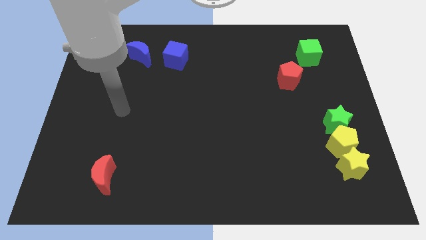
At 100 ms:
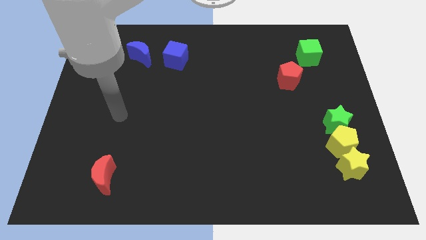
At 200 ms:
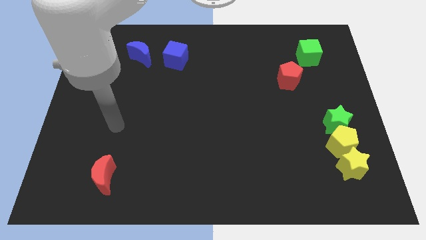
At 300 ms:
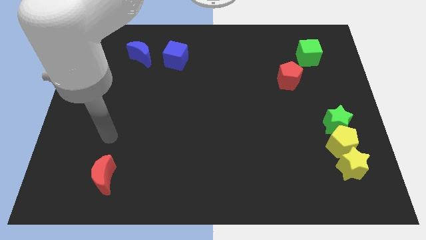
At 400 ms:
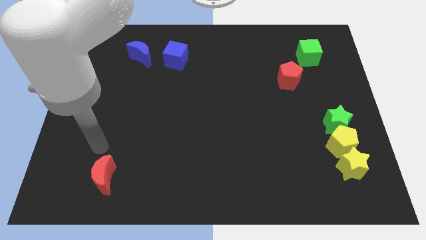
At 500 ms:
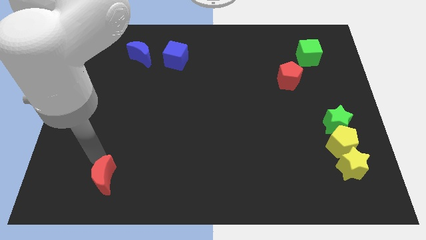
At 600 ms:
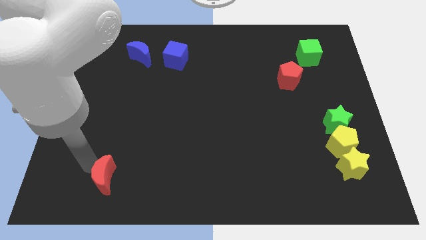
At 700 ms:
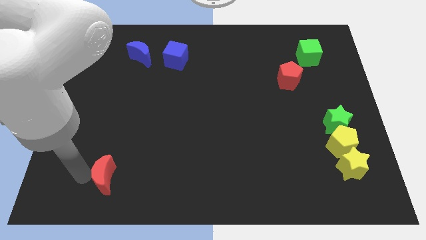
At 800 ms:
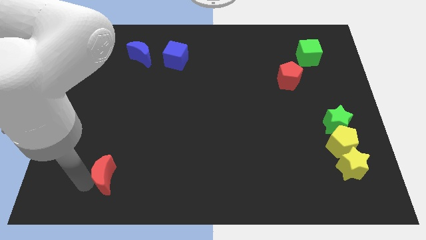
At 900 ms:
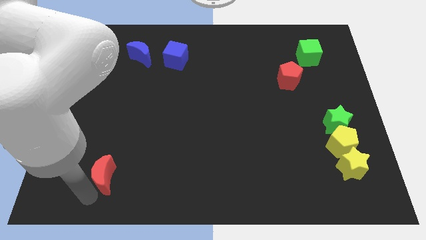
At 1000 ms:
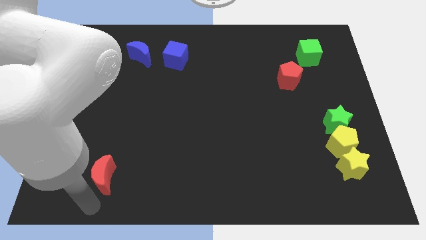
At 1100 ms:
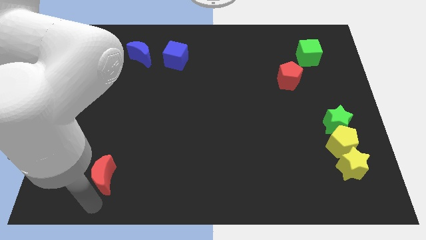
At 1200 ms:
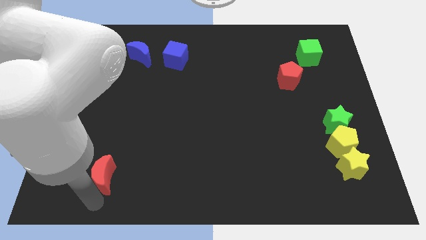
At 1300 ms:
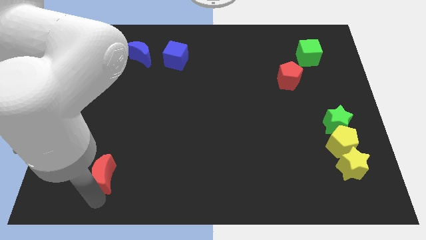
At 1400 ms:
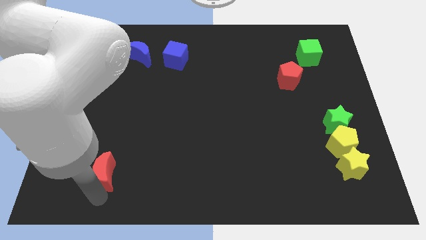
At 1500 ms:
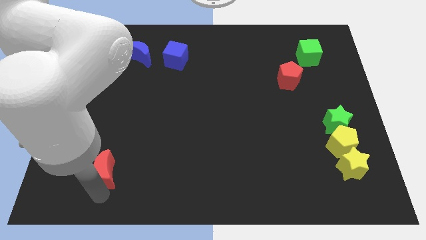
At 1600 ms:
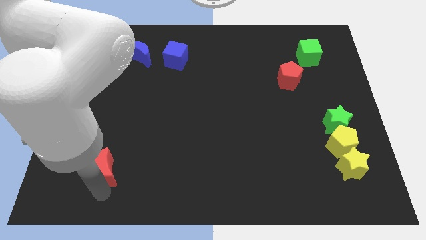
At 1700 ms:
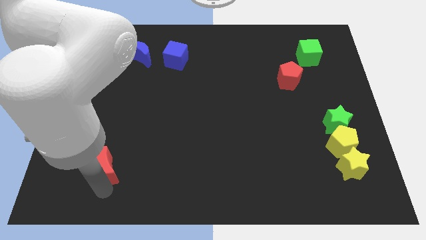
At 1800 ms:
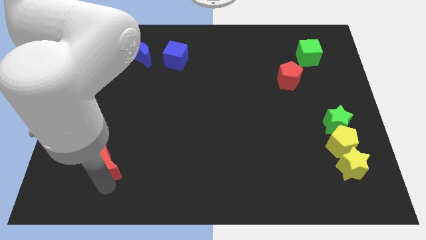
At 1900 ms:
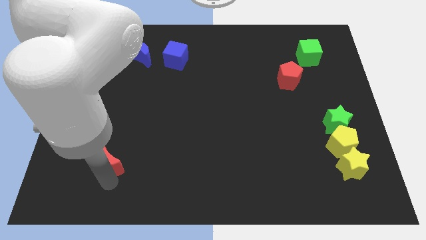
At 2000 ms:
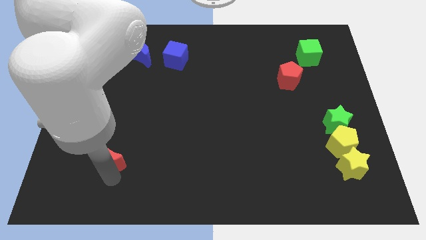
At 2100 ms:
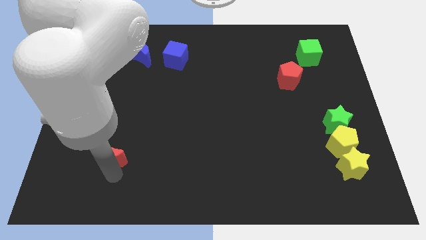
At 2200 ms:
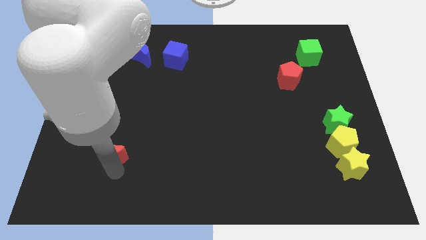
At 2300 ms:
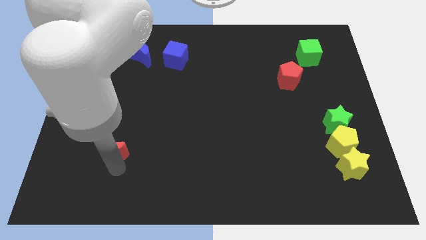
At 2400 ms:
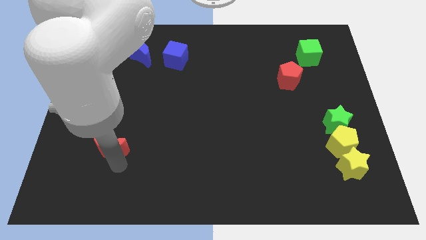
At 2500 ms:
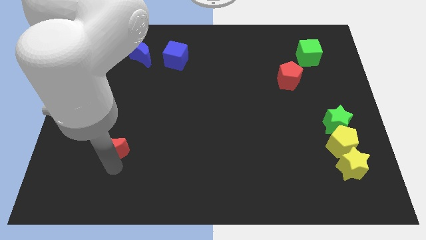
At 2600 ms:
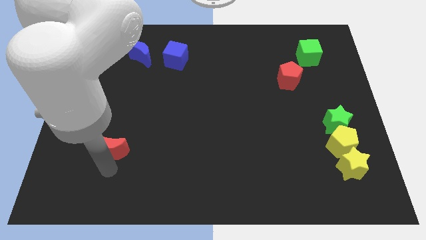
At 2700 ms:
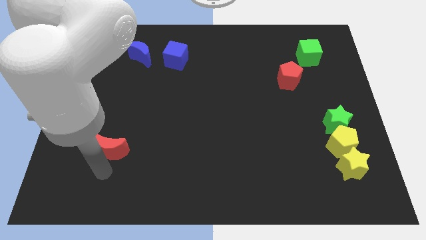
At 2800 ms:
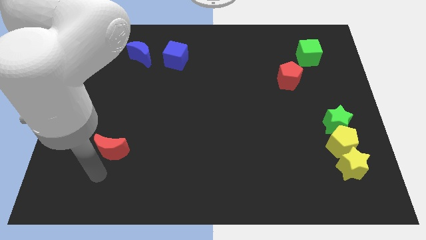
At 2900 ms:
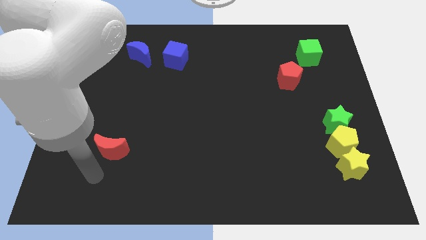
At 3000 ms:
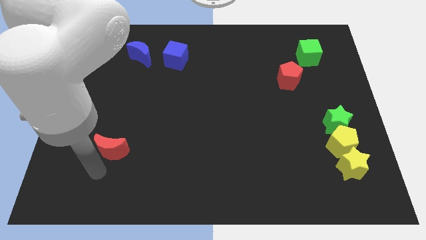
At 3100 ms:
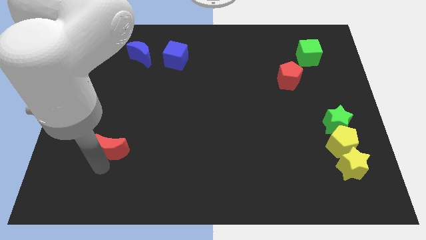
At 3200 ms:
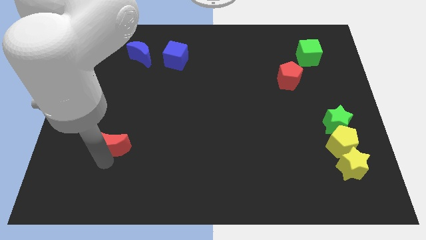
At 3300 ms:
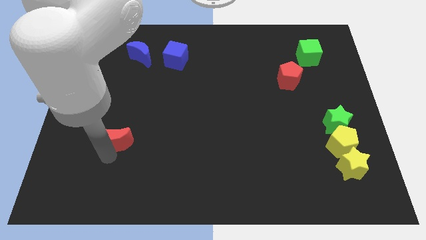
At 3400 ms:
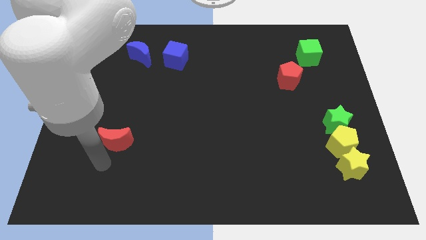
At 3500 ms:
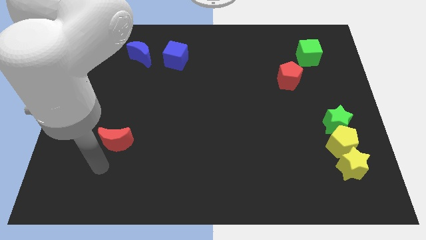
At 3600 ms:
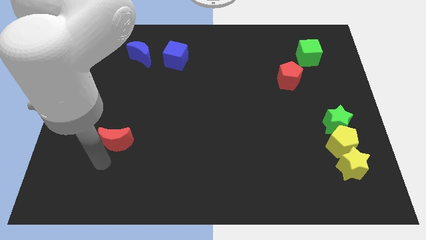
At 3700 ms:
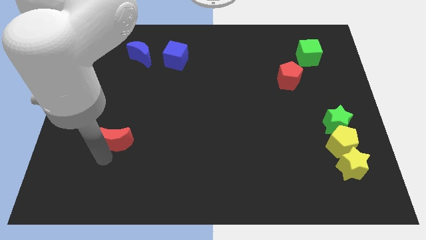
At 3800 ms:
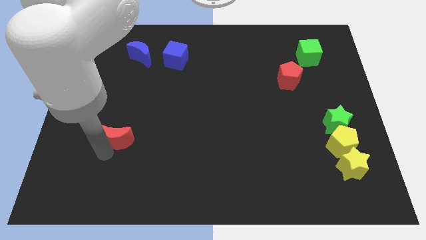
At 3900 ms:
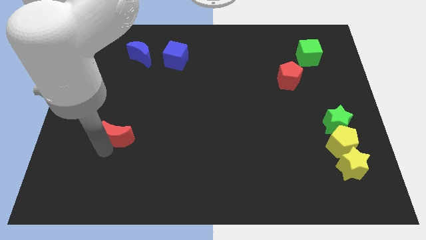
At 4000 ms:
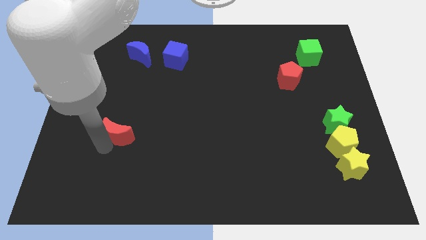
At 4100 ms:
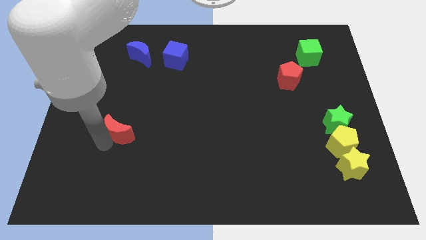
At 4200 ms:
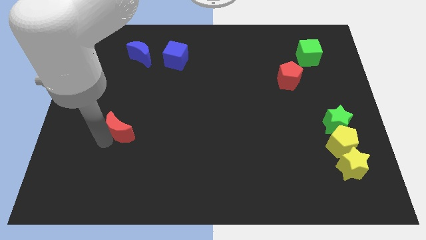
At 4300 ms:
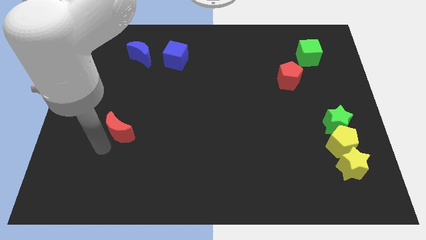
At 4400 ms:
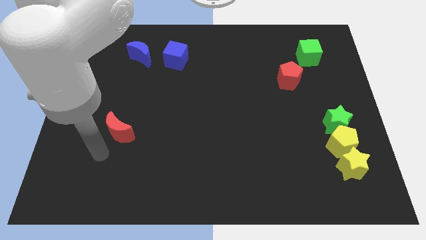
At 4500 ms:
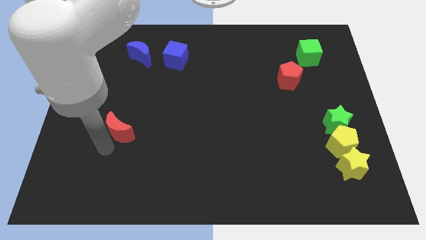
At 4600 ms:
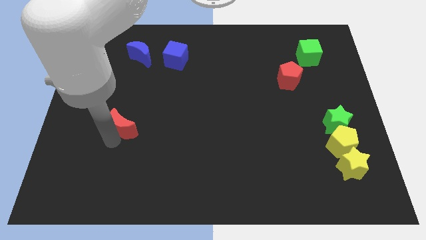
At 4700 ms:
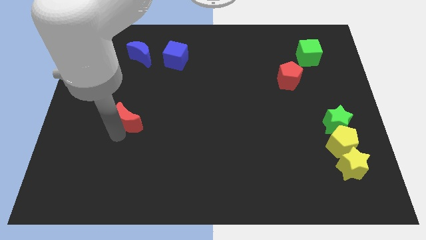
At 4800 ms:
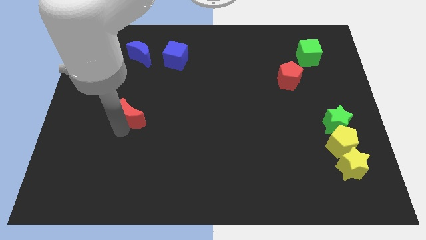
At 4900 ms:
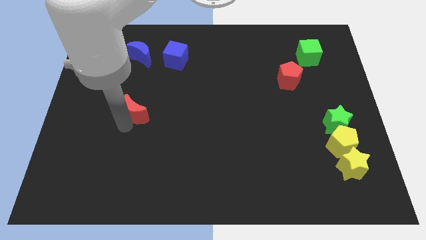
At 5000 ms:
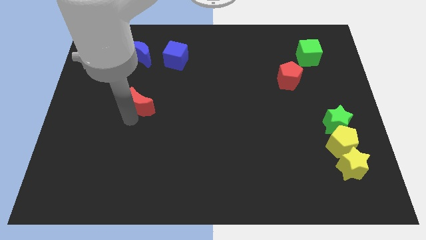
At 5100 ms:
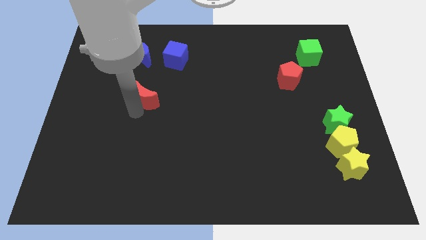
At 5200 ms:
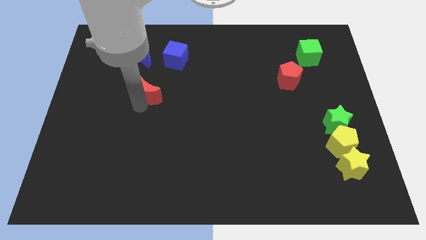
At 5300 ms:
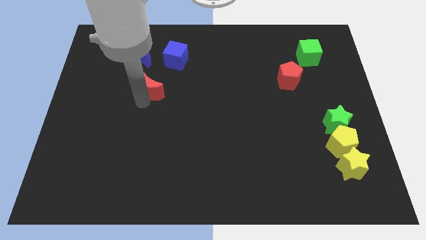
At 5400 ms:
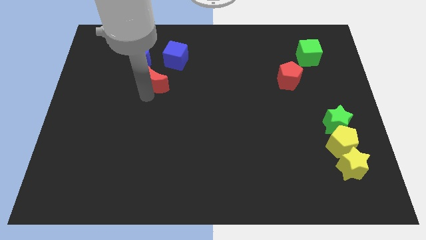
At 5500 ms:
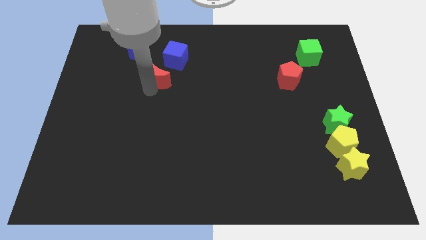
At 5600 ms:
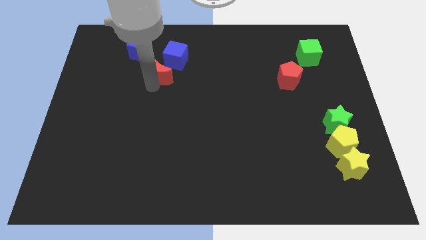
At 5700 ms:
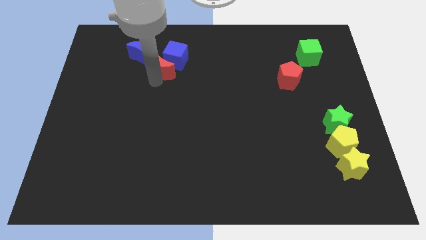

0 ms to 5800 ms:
put the red moon towards the blue cube
